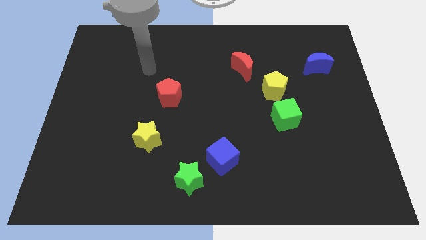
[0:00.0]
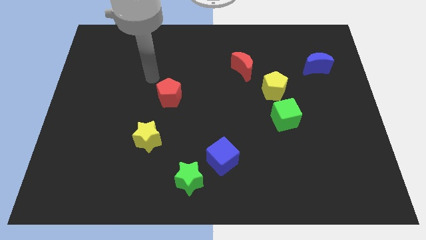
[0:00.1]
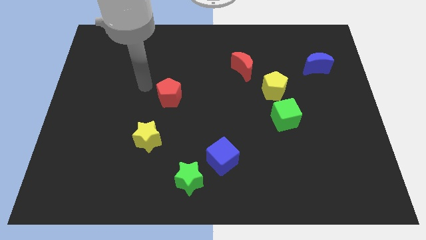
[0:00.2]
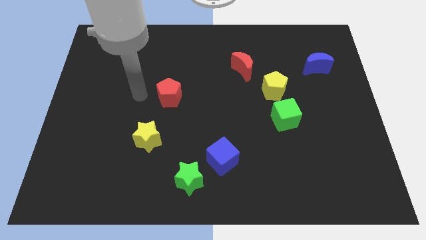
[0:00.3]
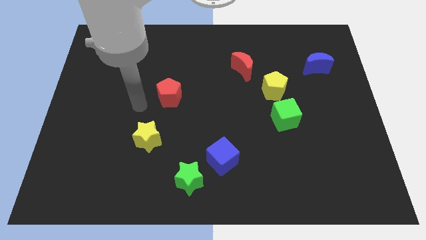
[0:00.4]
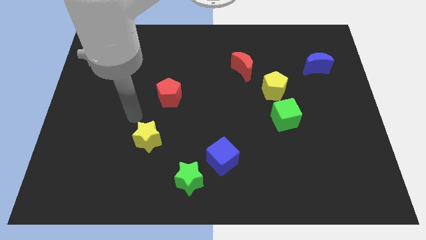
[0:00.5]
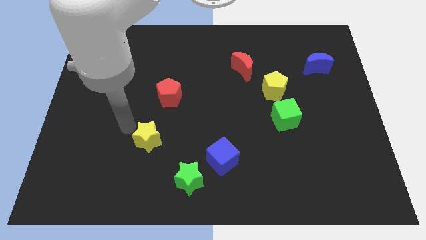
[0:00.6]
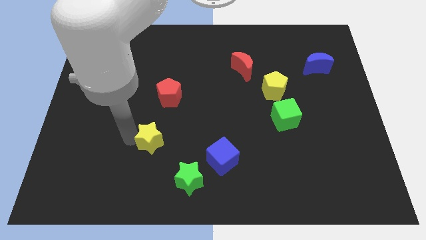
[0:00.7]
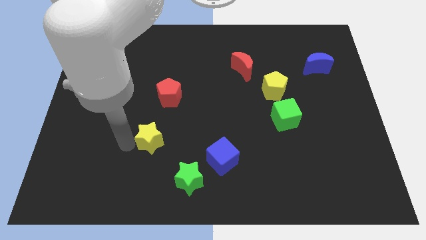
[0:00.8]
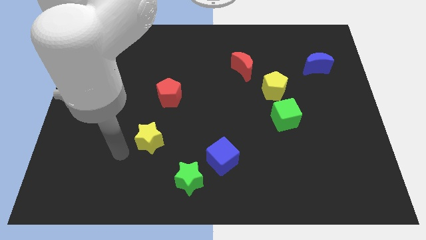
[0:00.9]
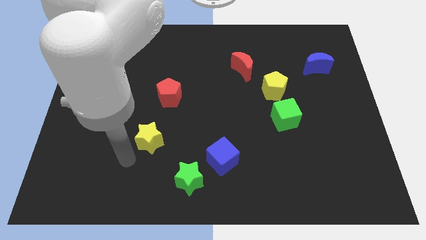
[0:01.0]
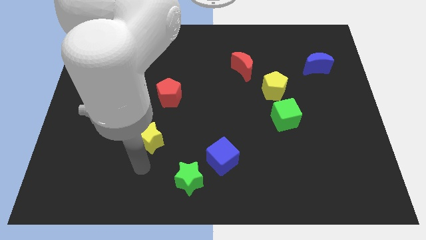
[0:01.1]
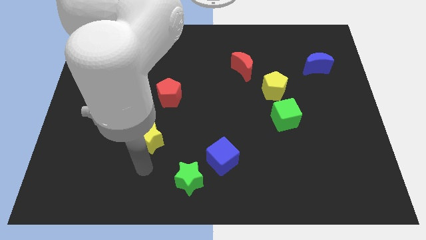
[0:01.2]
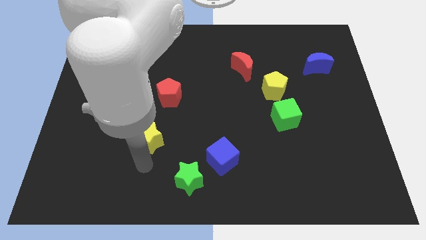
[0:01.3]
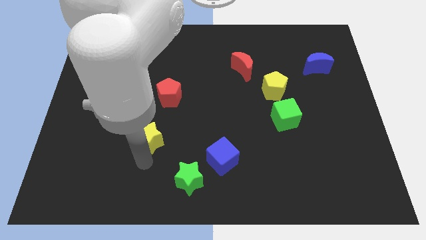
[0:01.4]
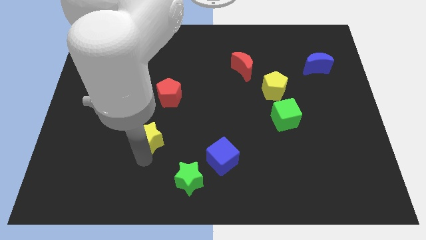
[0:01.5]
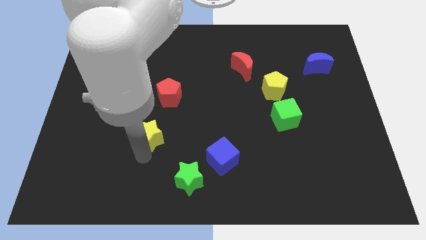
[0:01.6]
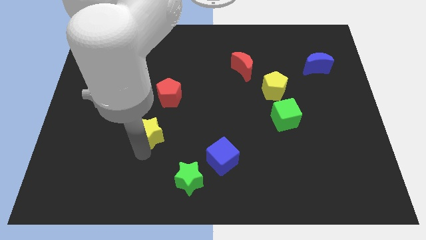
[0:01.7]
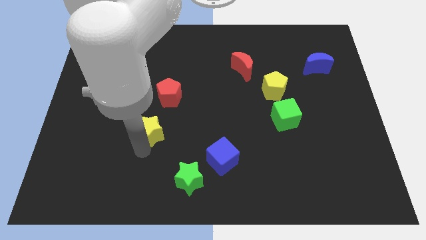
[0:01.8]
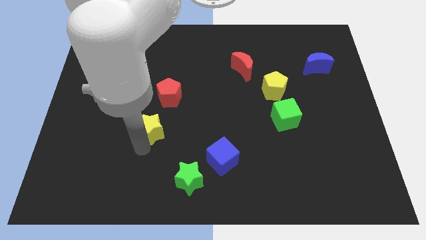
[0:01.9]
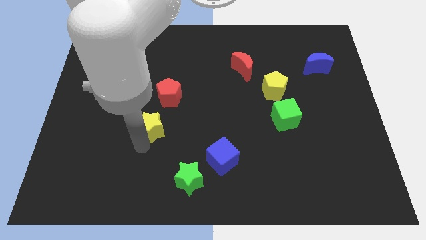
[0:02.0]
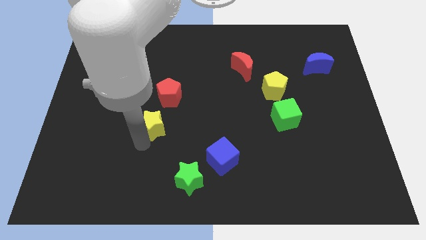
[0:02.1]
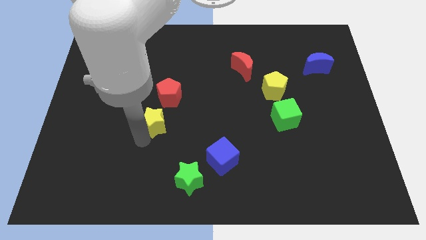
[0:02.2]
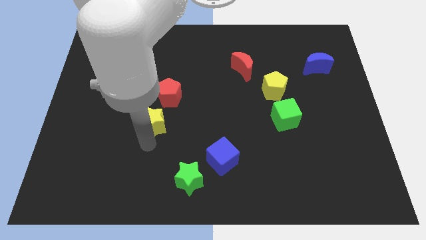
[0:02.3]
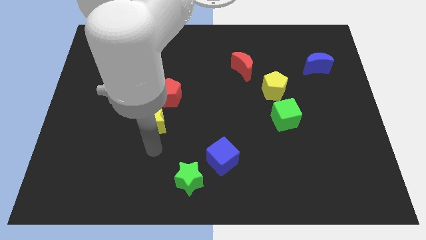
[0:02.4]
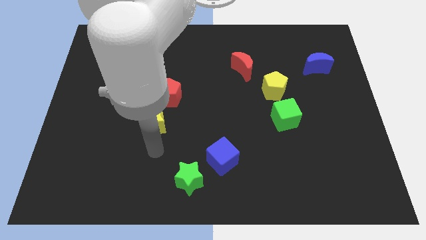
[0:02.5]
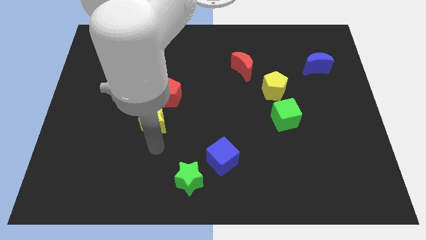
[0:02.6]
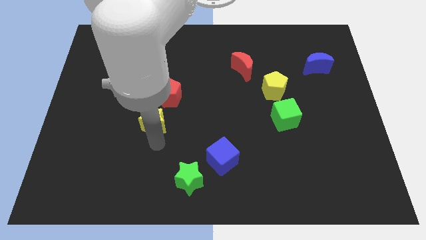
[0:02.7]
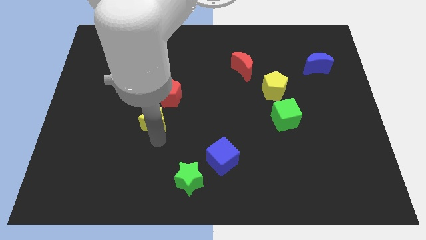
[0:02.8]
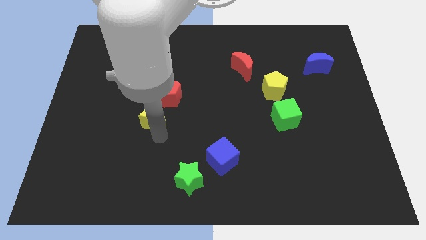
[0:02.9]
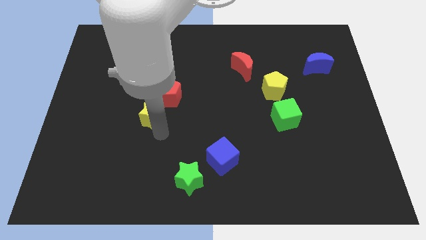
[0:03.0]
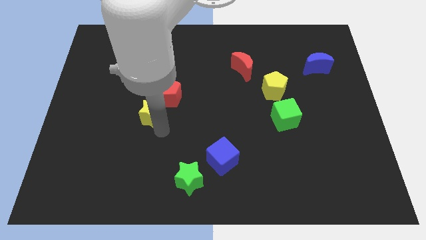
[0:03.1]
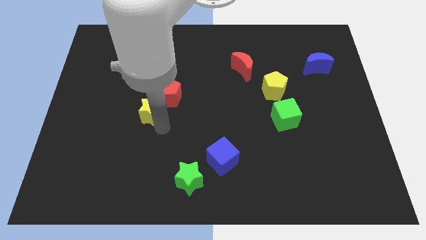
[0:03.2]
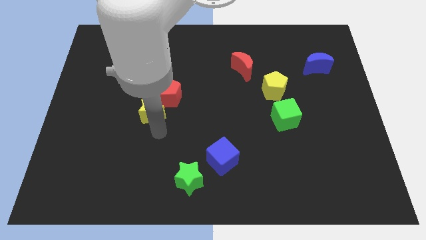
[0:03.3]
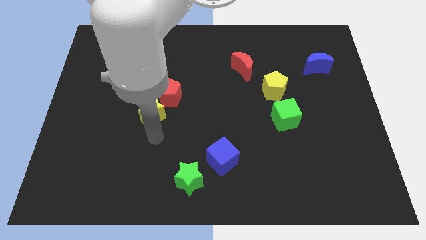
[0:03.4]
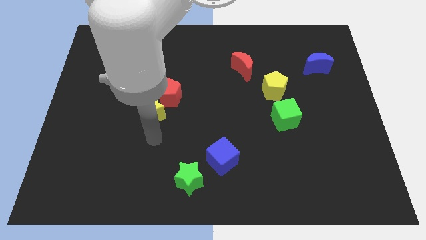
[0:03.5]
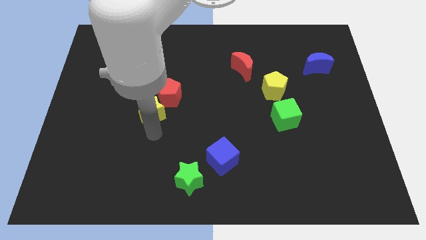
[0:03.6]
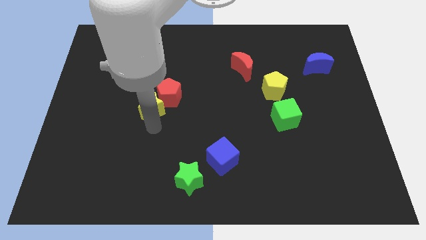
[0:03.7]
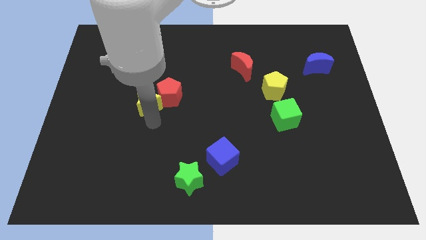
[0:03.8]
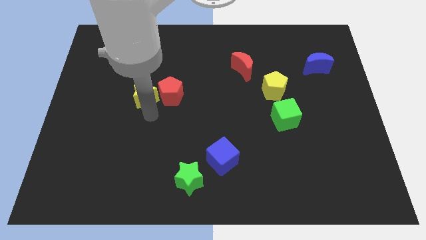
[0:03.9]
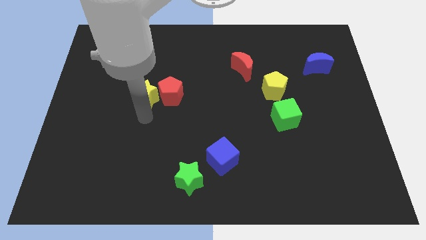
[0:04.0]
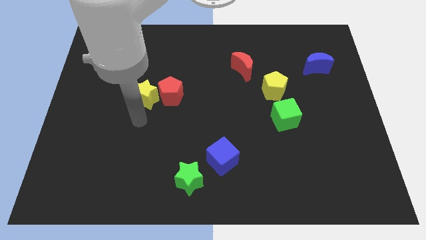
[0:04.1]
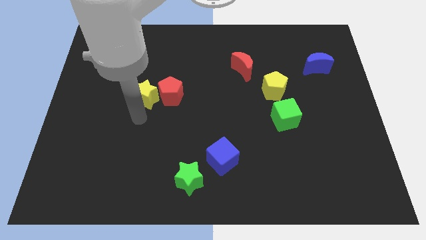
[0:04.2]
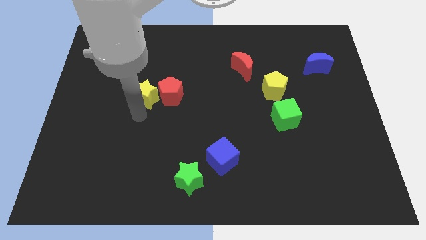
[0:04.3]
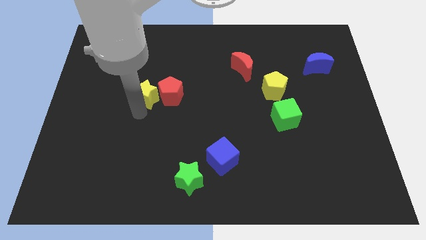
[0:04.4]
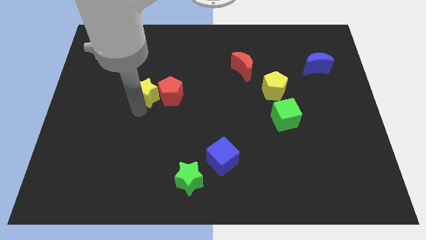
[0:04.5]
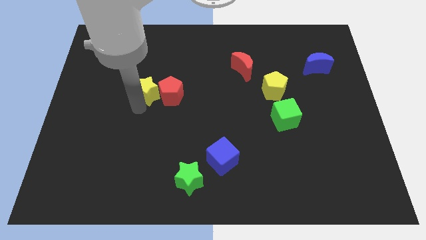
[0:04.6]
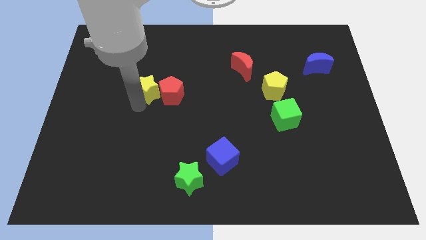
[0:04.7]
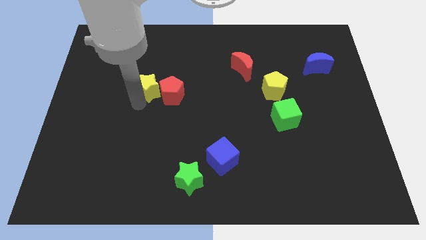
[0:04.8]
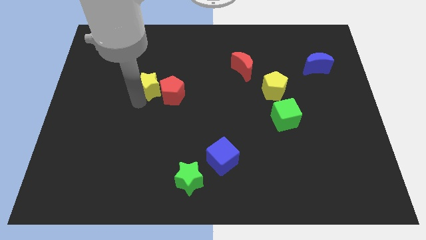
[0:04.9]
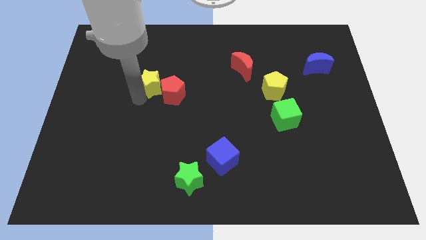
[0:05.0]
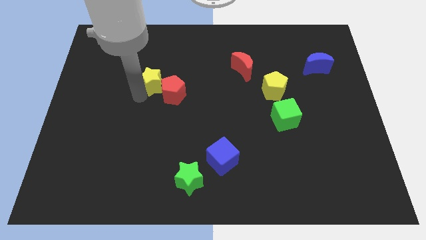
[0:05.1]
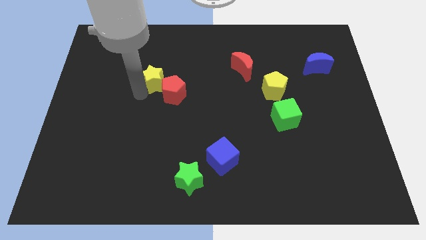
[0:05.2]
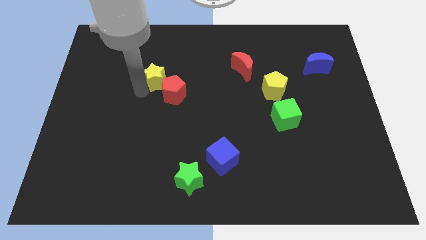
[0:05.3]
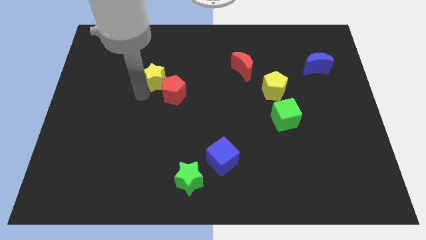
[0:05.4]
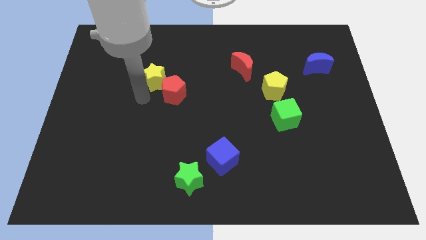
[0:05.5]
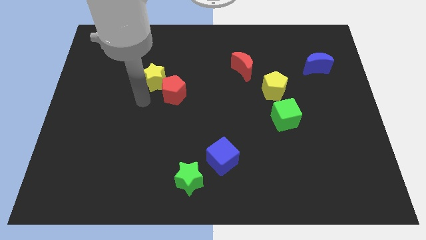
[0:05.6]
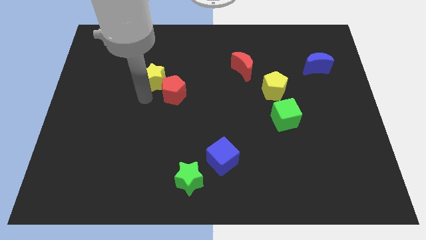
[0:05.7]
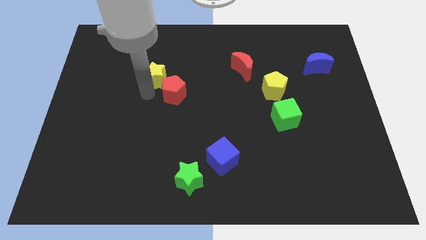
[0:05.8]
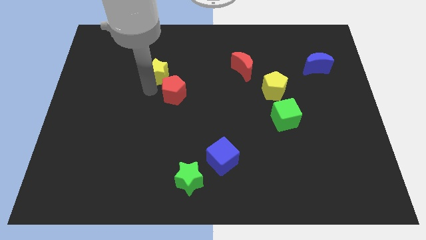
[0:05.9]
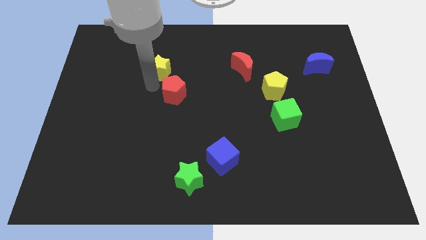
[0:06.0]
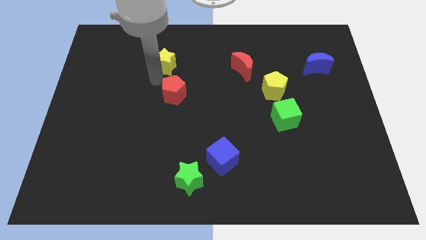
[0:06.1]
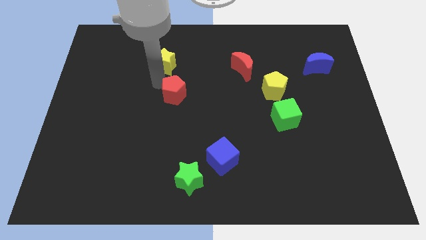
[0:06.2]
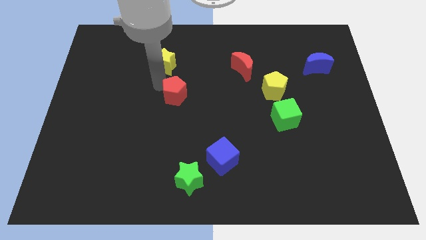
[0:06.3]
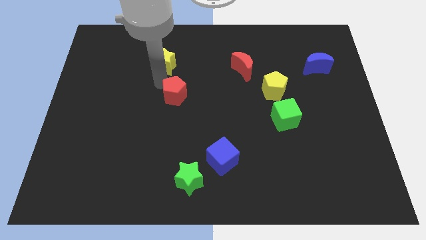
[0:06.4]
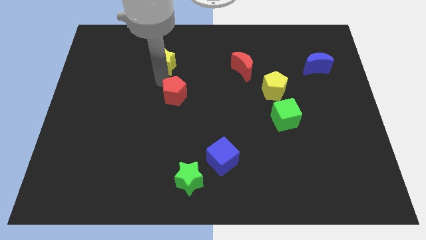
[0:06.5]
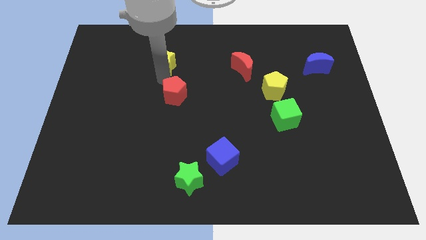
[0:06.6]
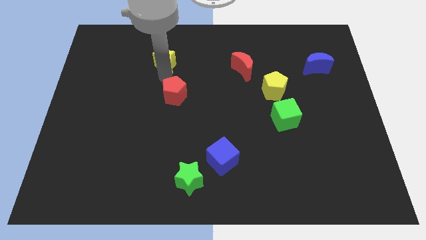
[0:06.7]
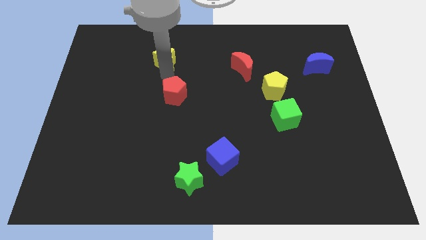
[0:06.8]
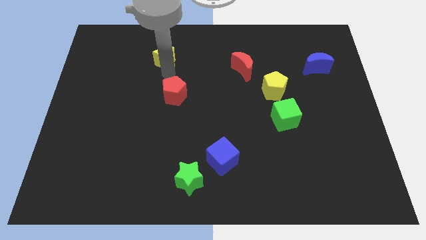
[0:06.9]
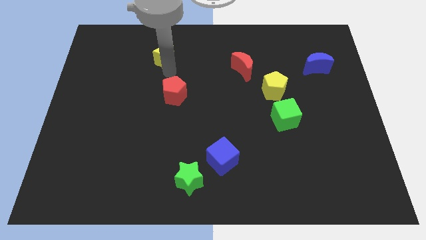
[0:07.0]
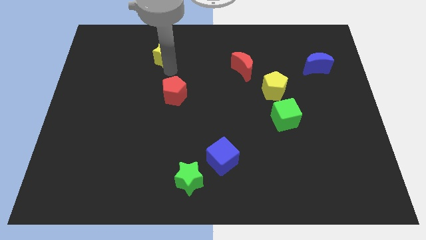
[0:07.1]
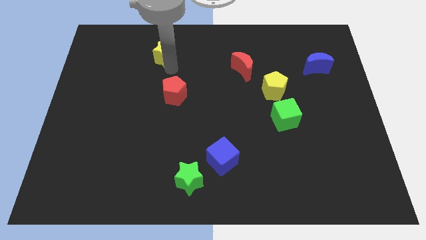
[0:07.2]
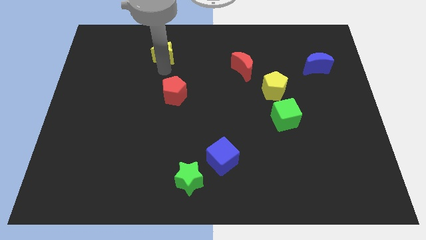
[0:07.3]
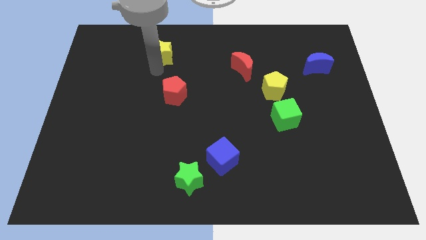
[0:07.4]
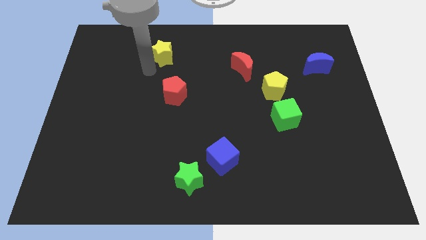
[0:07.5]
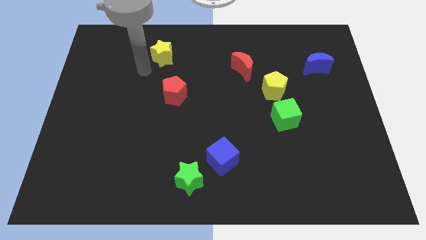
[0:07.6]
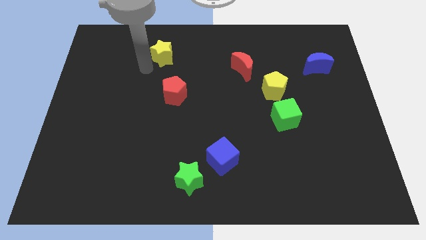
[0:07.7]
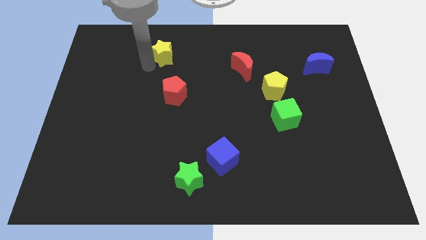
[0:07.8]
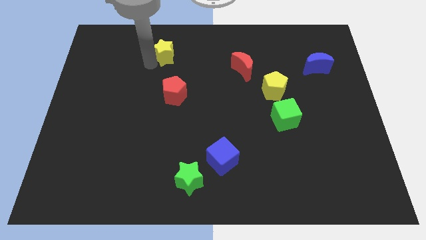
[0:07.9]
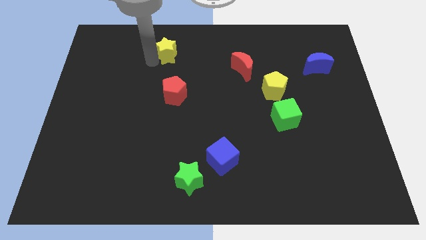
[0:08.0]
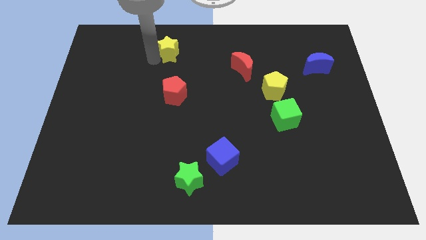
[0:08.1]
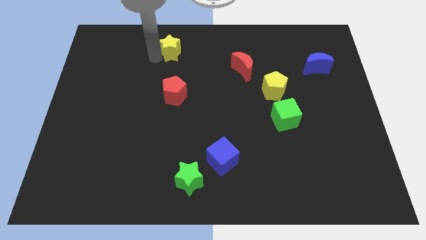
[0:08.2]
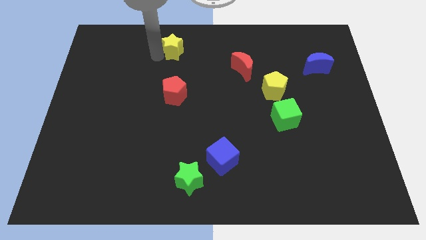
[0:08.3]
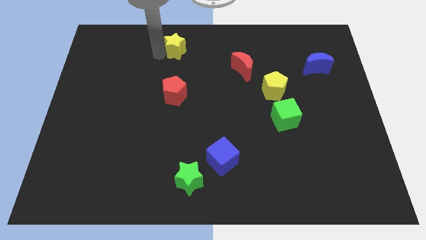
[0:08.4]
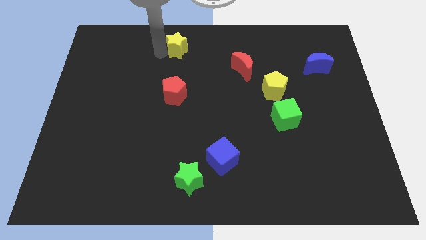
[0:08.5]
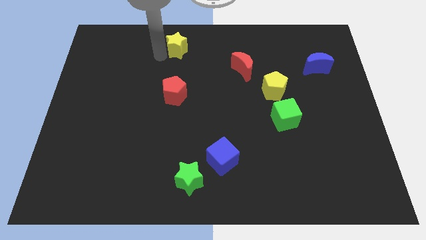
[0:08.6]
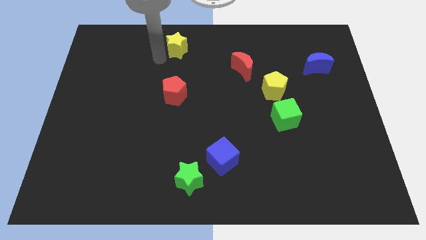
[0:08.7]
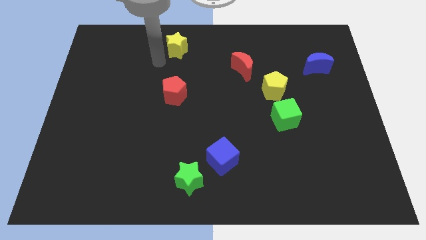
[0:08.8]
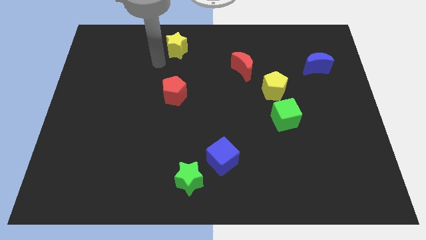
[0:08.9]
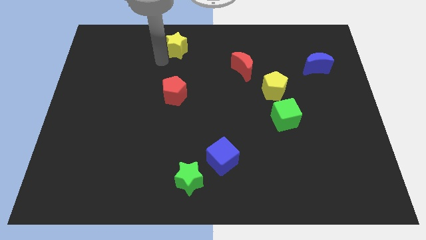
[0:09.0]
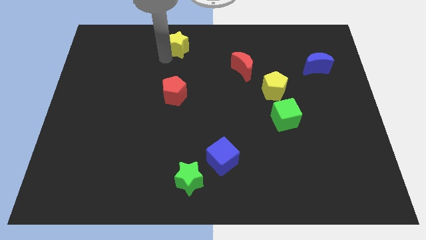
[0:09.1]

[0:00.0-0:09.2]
move the yellow star to the top
